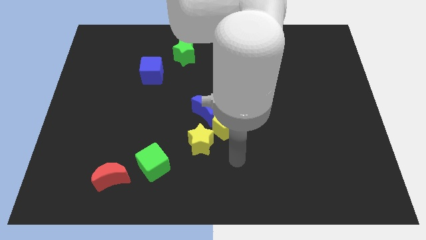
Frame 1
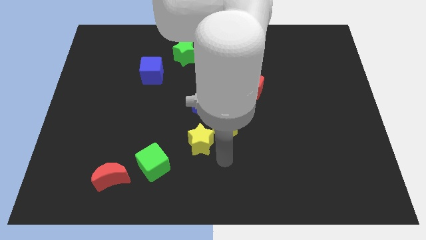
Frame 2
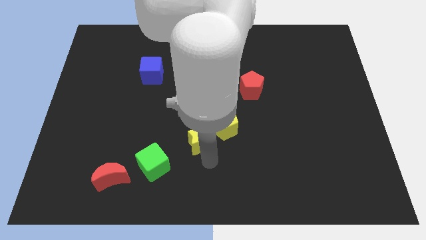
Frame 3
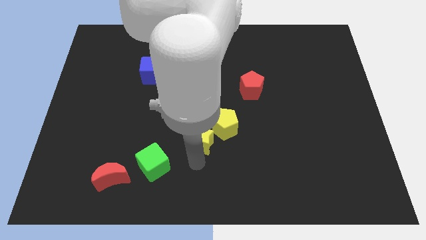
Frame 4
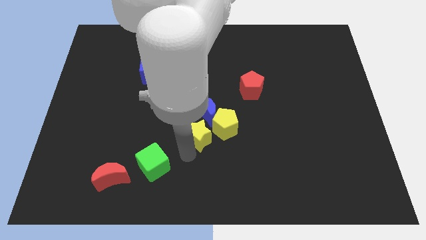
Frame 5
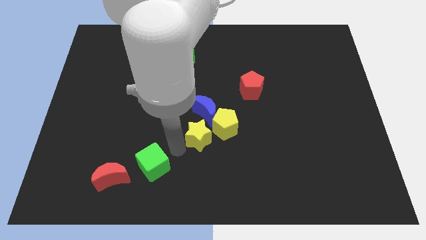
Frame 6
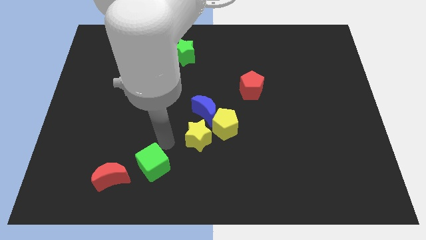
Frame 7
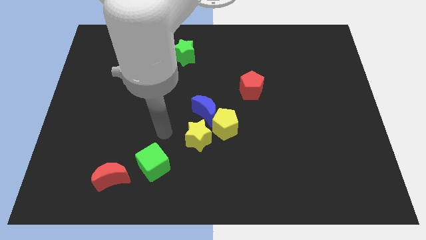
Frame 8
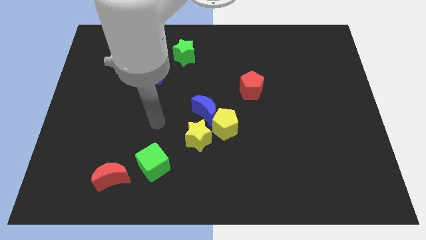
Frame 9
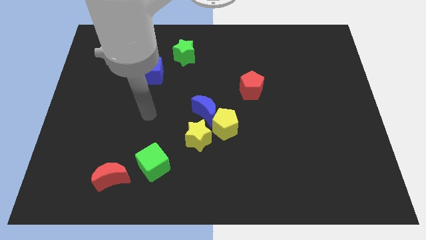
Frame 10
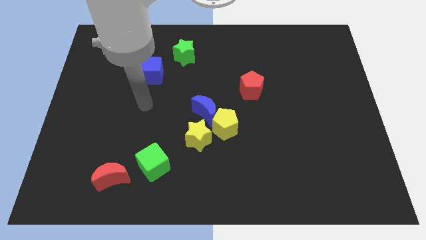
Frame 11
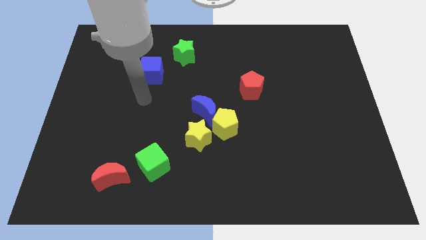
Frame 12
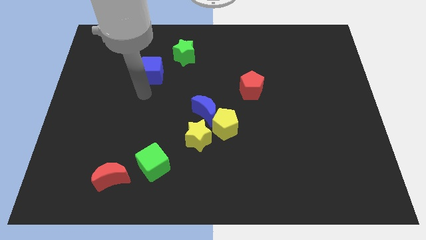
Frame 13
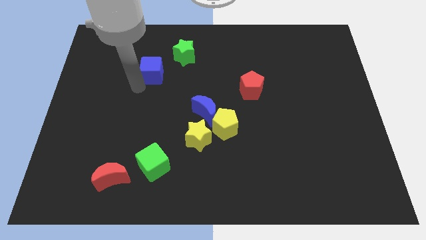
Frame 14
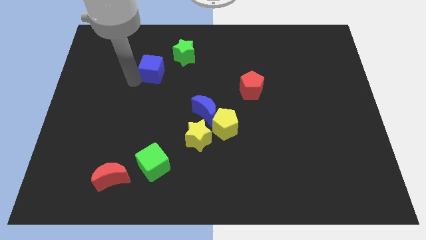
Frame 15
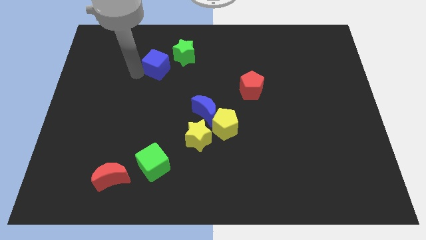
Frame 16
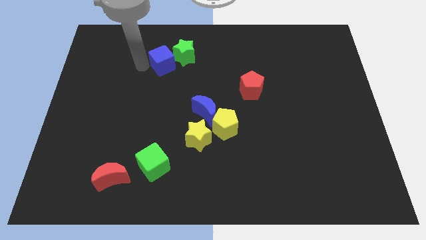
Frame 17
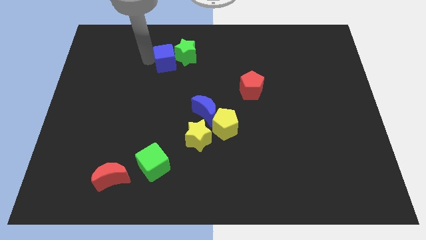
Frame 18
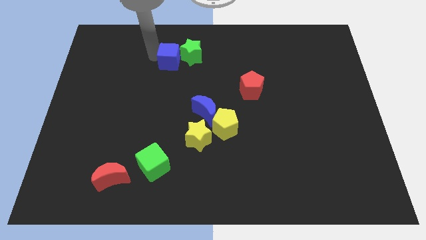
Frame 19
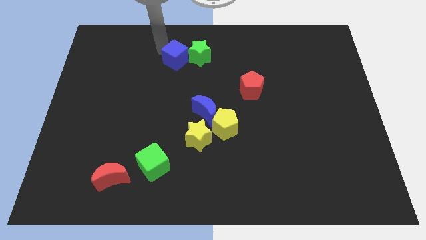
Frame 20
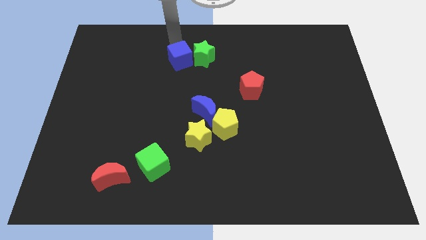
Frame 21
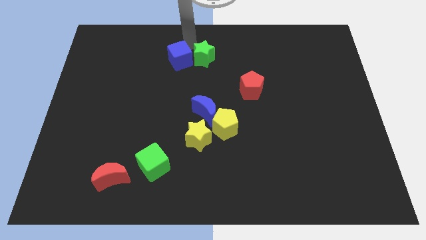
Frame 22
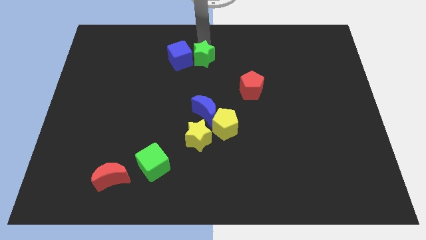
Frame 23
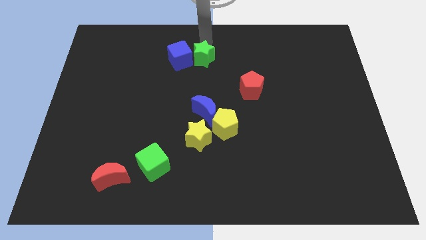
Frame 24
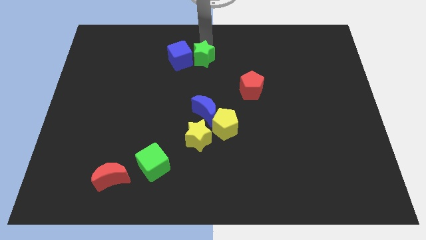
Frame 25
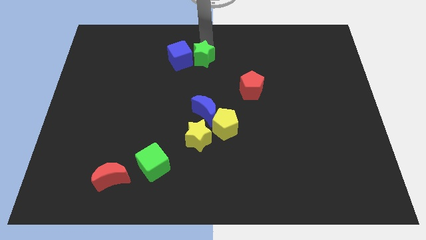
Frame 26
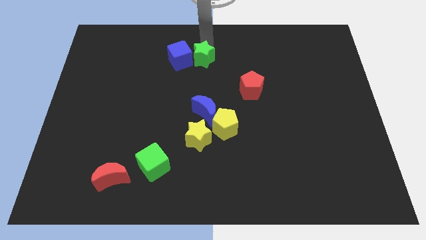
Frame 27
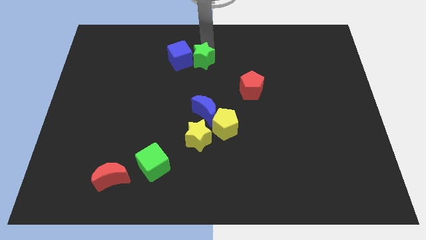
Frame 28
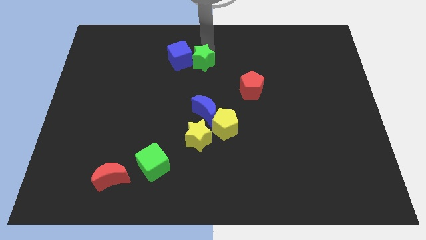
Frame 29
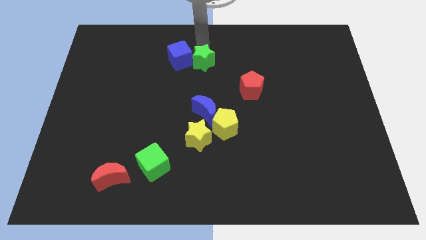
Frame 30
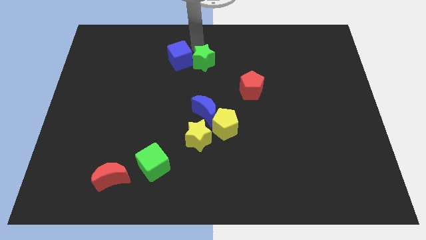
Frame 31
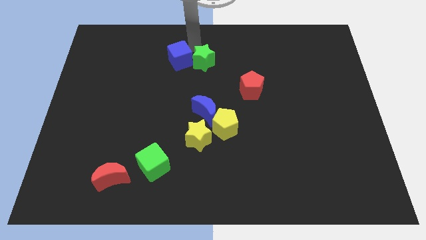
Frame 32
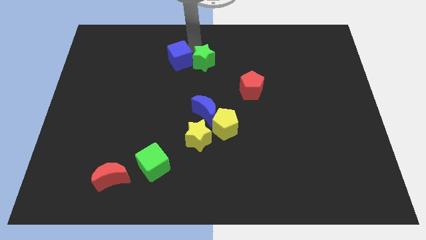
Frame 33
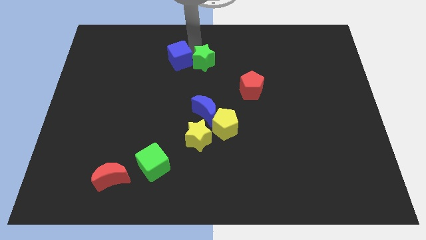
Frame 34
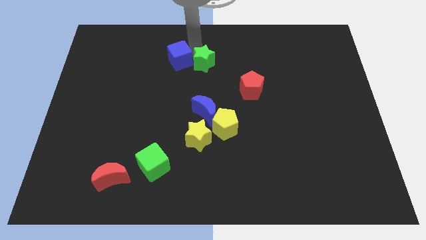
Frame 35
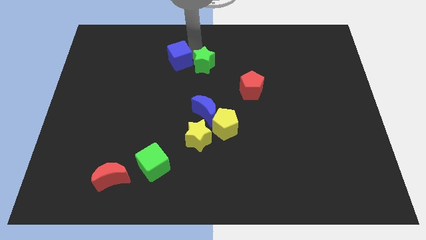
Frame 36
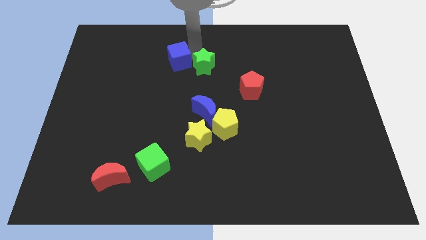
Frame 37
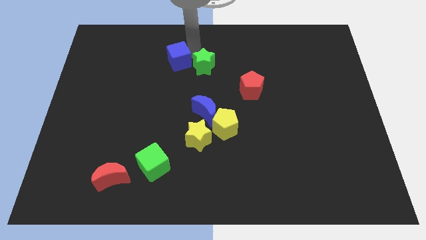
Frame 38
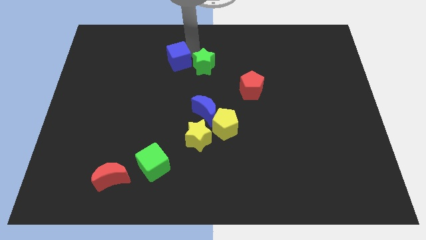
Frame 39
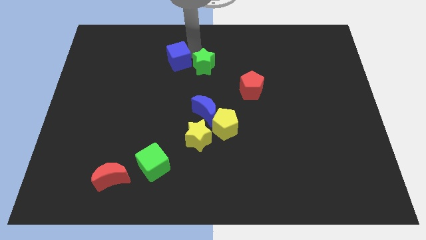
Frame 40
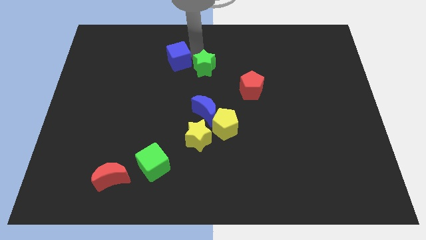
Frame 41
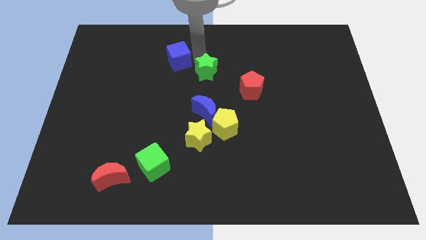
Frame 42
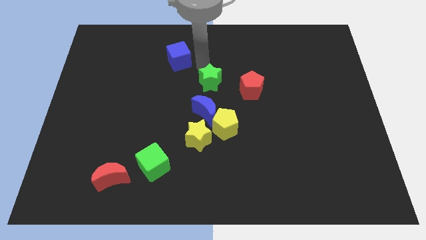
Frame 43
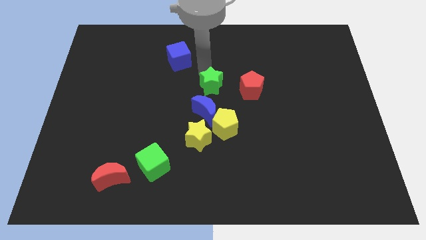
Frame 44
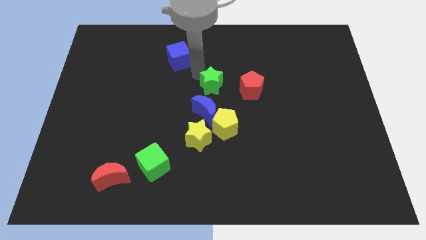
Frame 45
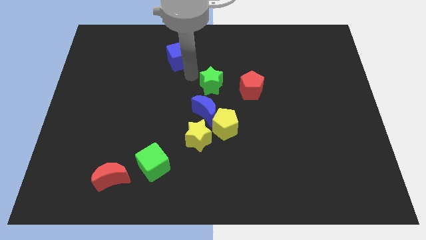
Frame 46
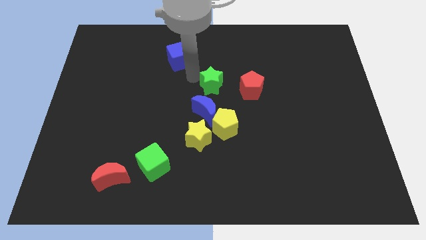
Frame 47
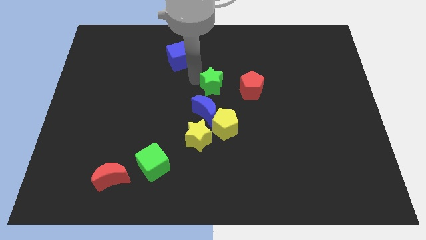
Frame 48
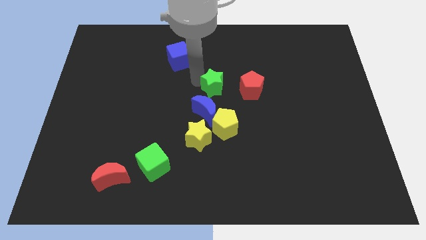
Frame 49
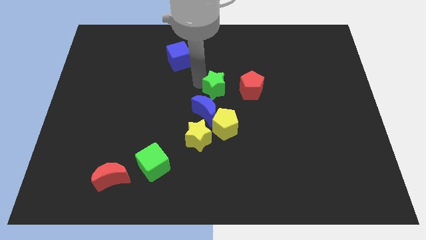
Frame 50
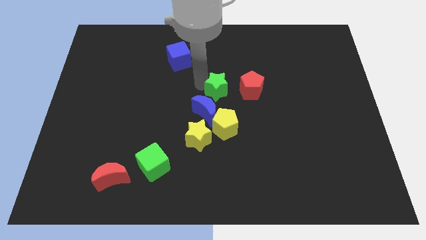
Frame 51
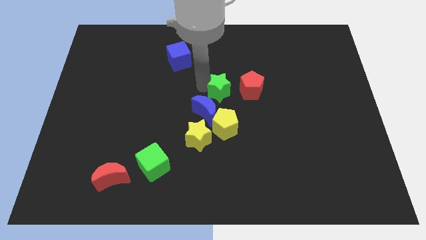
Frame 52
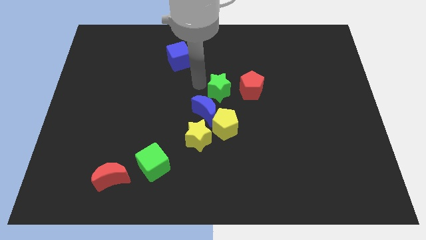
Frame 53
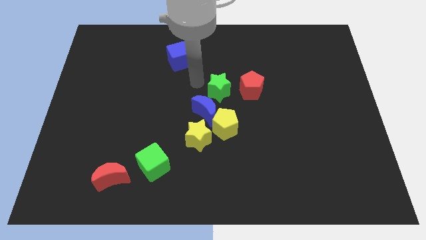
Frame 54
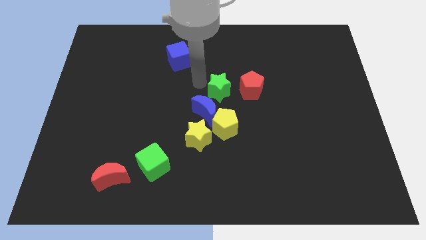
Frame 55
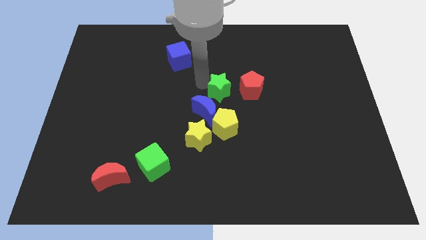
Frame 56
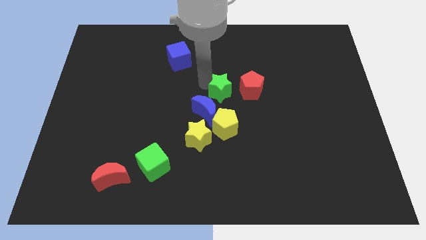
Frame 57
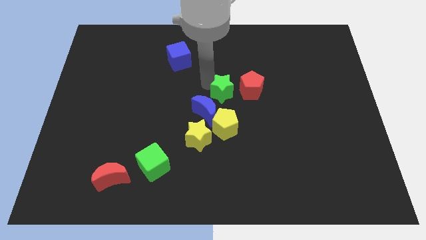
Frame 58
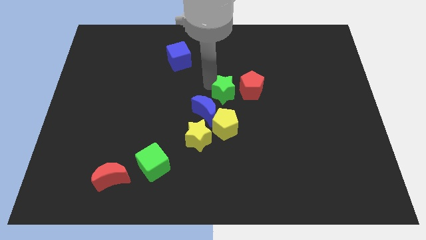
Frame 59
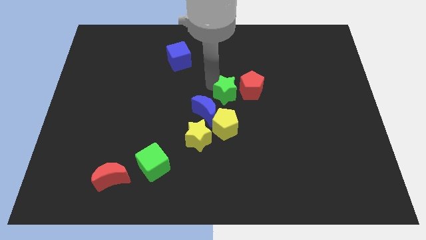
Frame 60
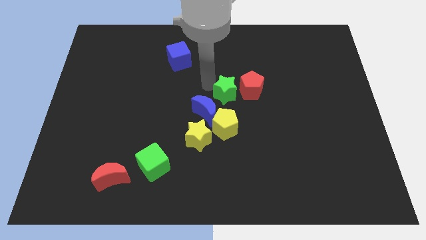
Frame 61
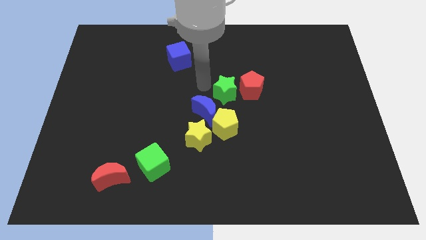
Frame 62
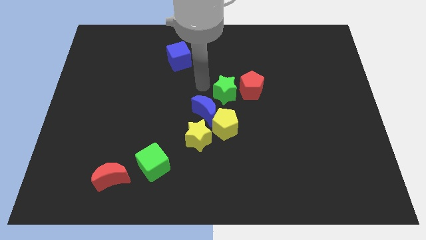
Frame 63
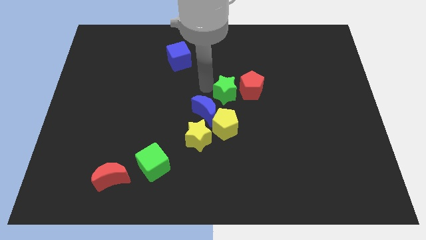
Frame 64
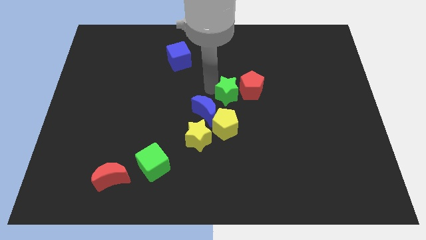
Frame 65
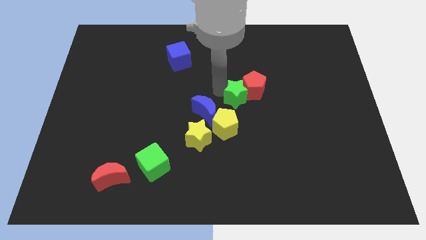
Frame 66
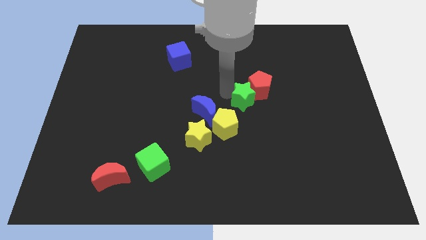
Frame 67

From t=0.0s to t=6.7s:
push the green star downwards and right

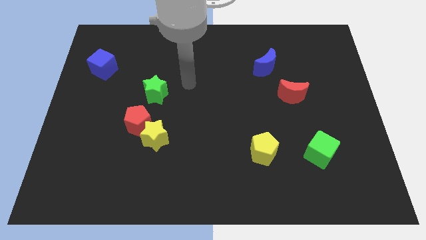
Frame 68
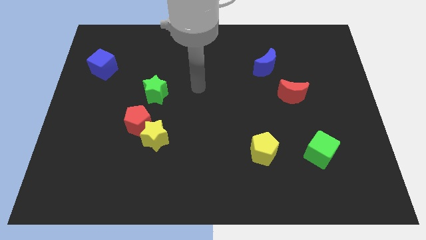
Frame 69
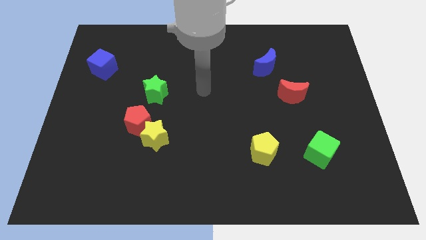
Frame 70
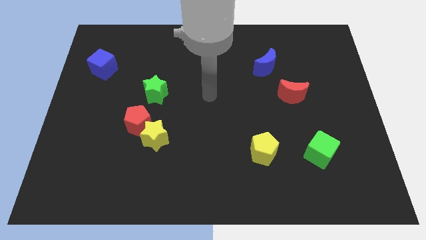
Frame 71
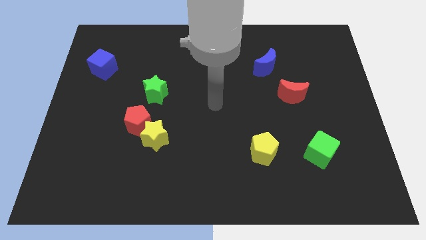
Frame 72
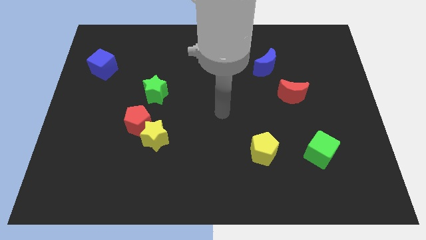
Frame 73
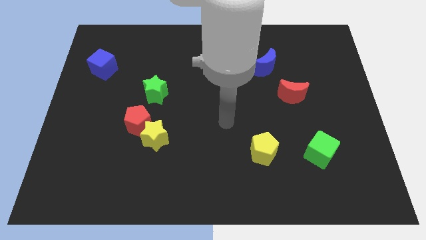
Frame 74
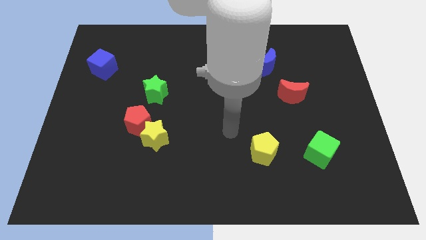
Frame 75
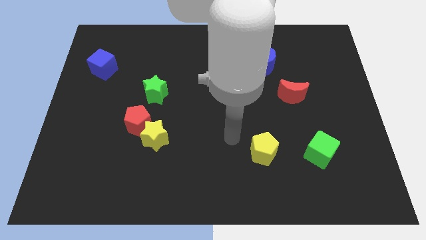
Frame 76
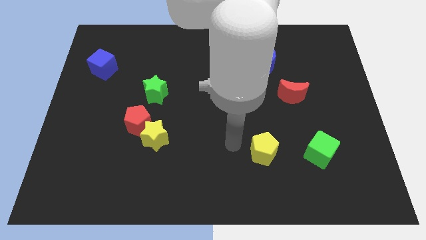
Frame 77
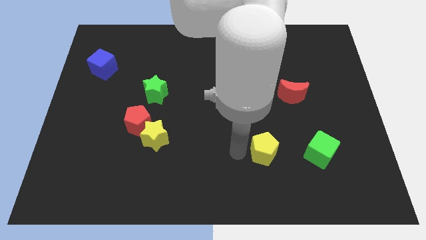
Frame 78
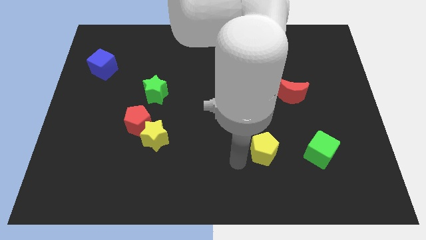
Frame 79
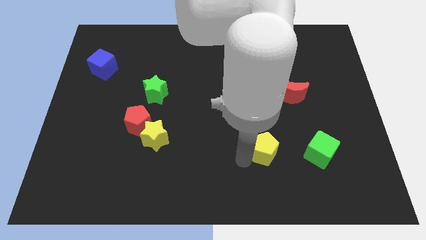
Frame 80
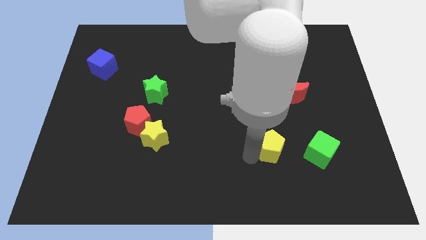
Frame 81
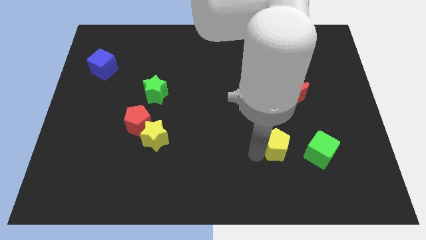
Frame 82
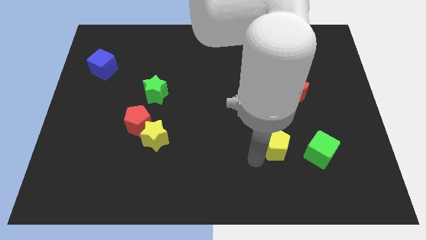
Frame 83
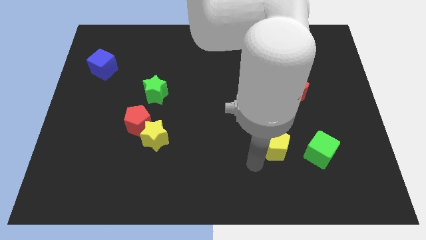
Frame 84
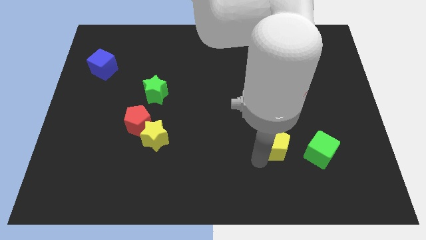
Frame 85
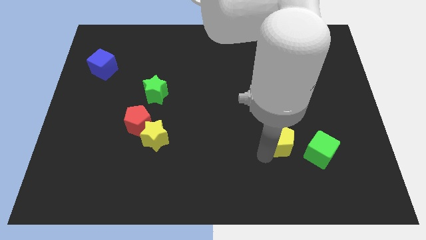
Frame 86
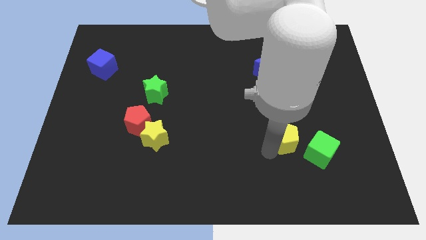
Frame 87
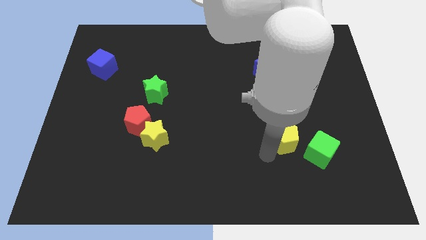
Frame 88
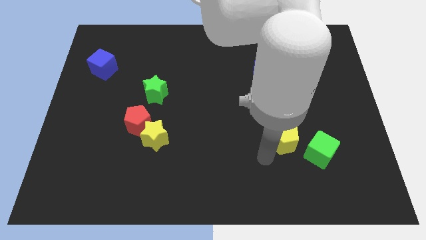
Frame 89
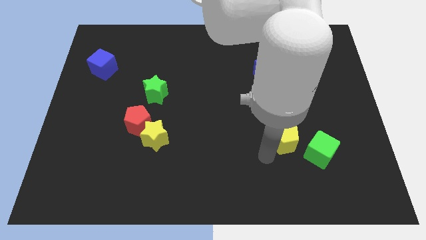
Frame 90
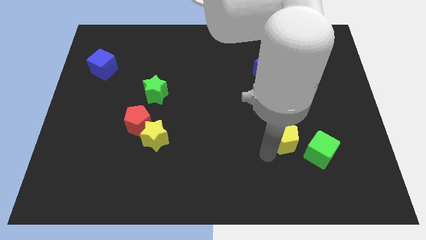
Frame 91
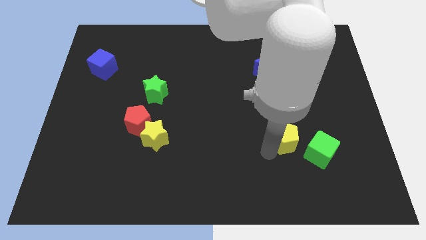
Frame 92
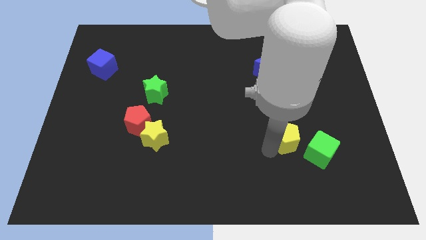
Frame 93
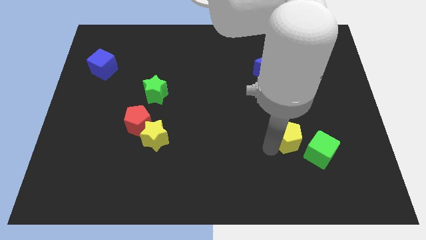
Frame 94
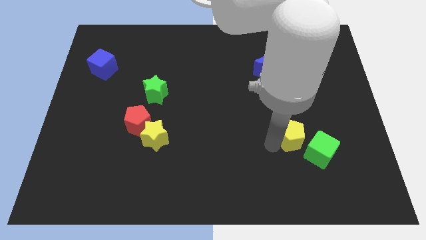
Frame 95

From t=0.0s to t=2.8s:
slightly slide the yellow pentagon up and right diagonally
